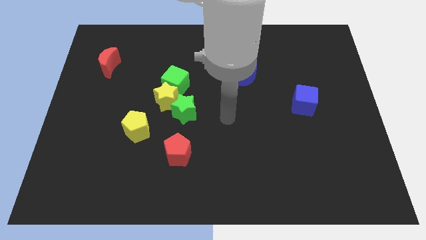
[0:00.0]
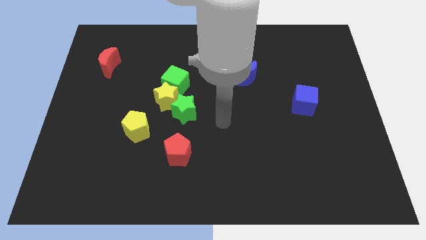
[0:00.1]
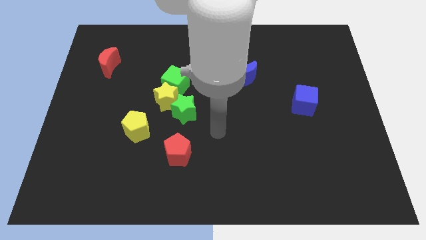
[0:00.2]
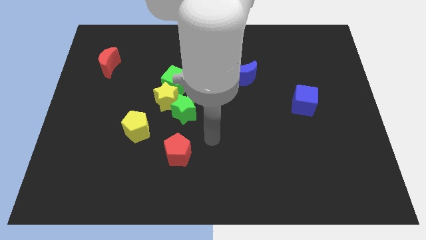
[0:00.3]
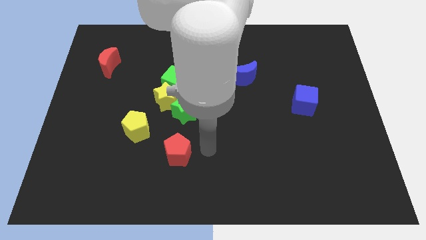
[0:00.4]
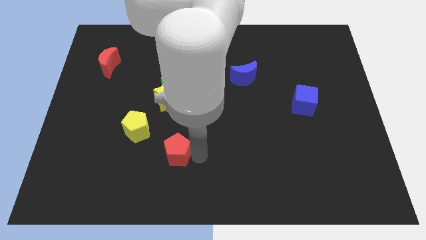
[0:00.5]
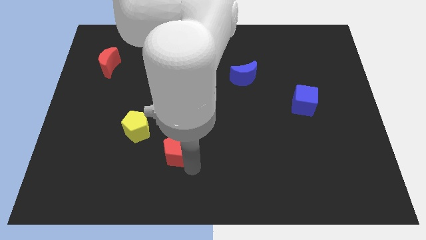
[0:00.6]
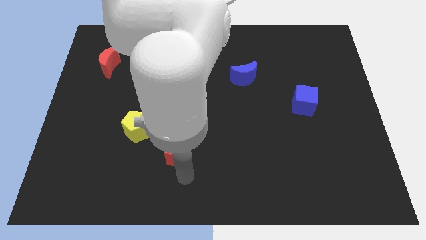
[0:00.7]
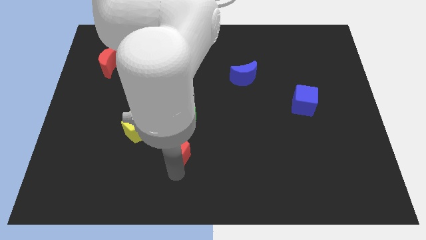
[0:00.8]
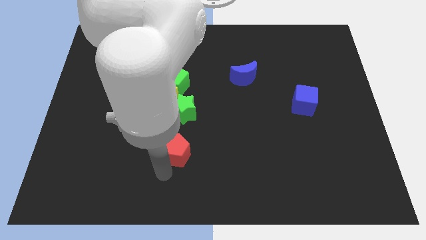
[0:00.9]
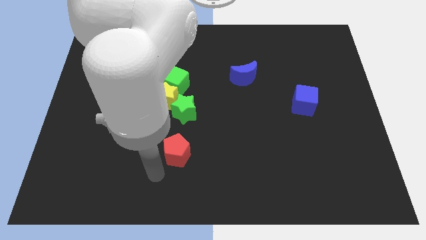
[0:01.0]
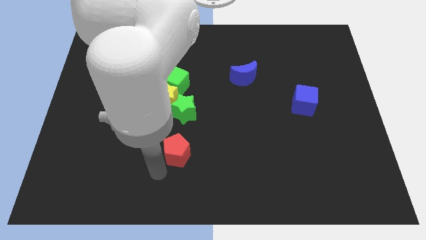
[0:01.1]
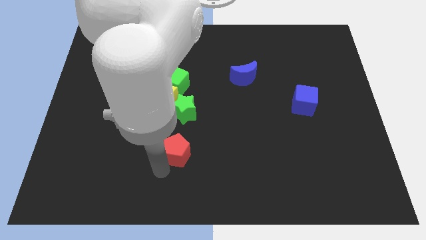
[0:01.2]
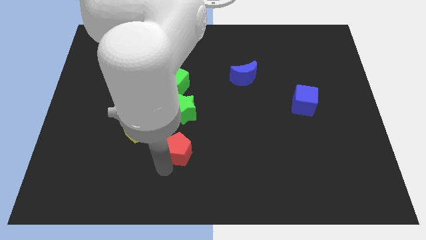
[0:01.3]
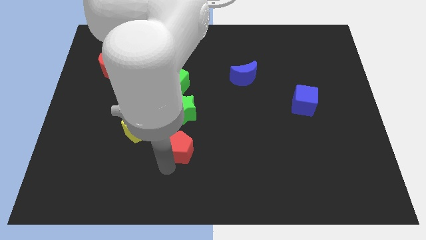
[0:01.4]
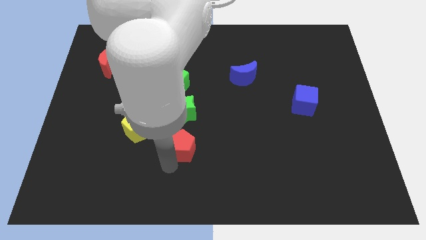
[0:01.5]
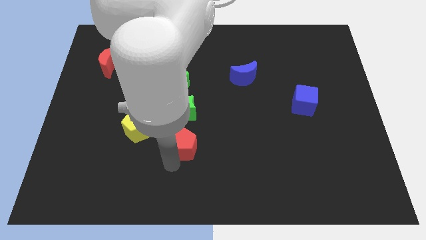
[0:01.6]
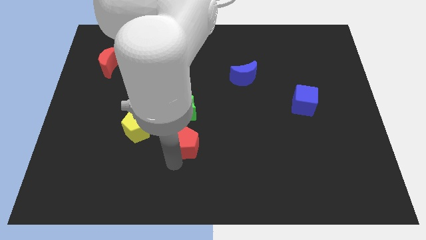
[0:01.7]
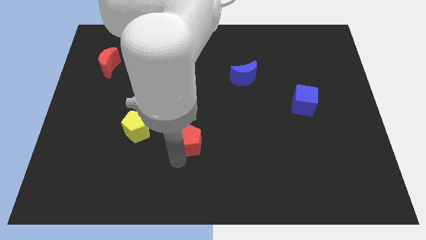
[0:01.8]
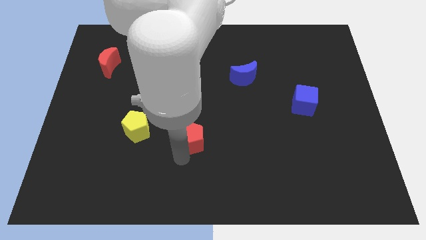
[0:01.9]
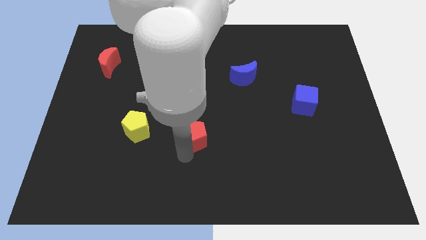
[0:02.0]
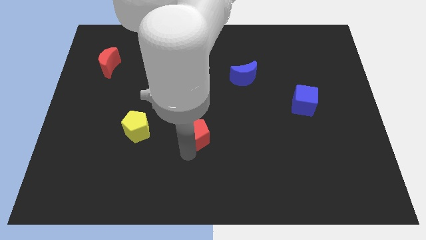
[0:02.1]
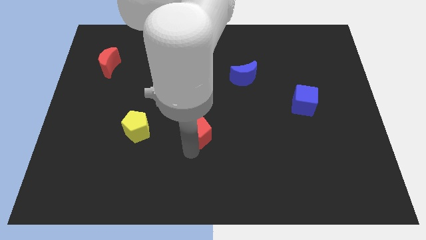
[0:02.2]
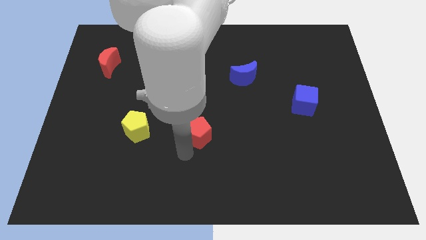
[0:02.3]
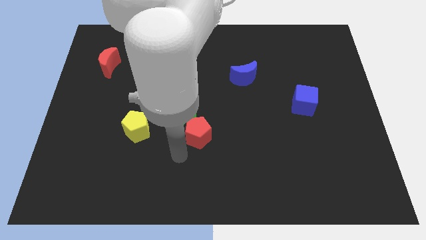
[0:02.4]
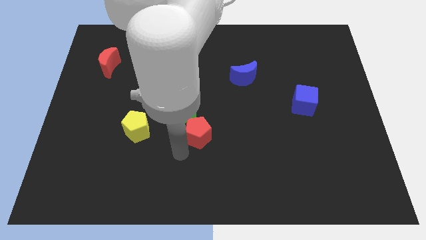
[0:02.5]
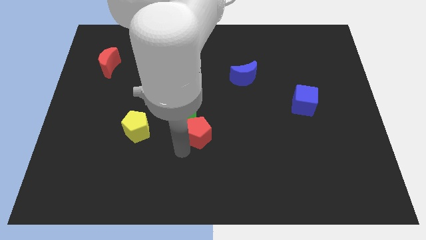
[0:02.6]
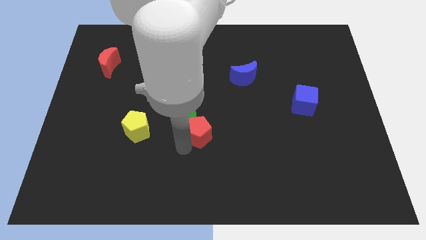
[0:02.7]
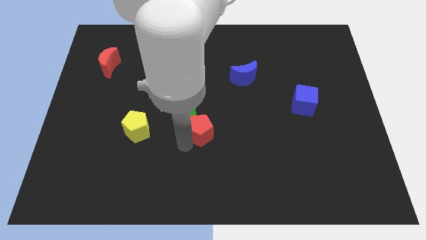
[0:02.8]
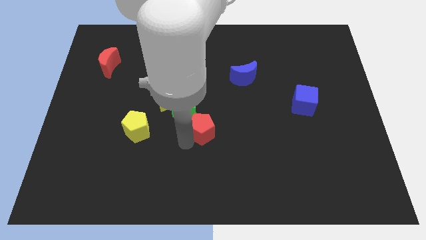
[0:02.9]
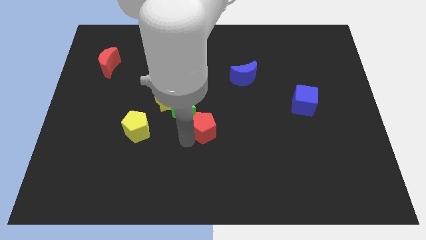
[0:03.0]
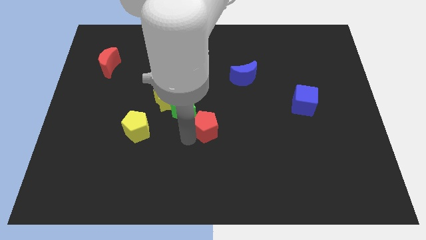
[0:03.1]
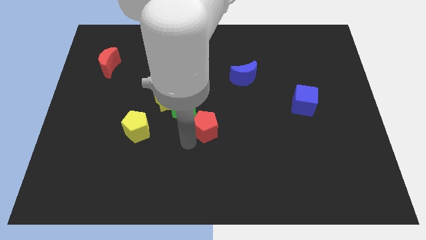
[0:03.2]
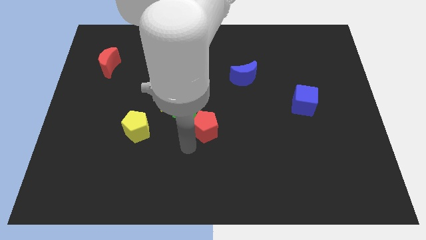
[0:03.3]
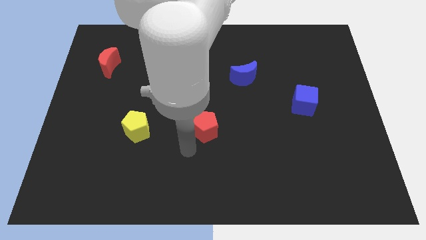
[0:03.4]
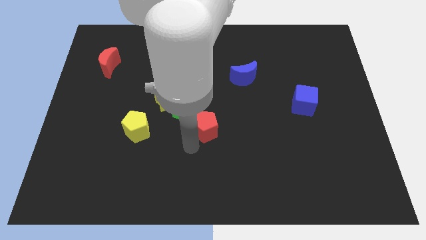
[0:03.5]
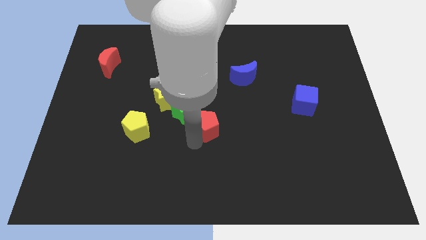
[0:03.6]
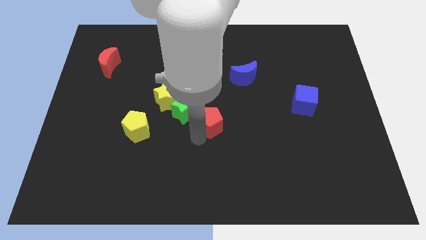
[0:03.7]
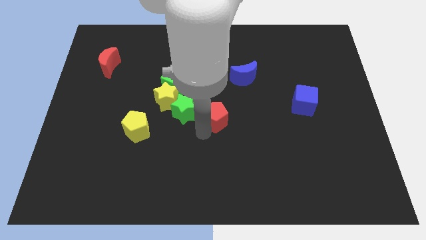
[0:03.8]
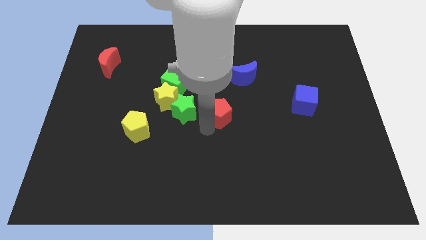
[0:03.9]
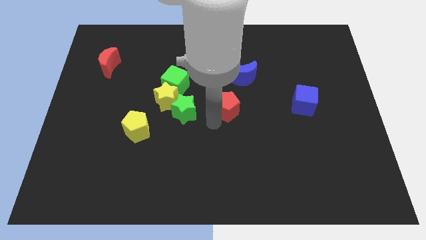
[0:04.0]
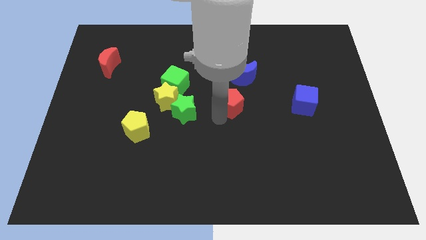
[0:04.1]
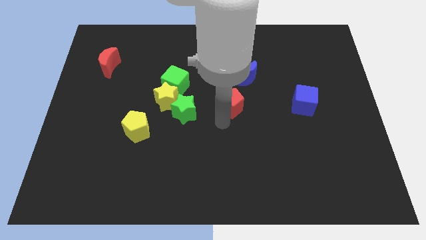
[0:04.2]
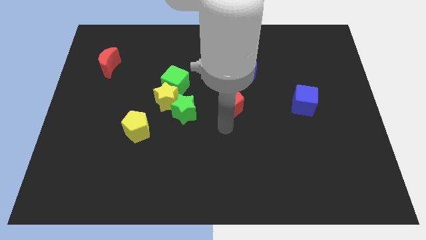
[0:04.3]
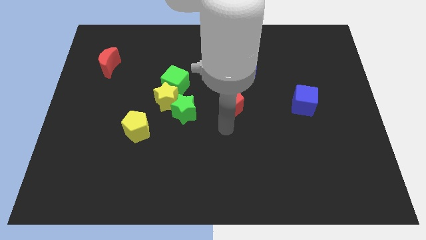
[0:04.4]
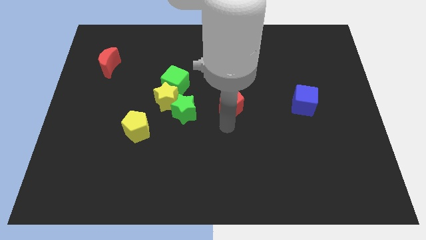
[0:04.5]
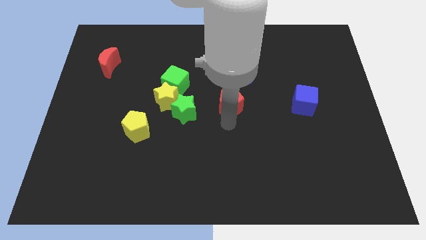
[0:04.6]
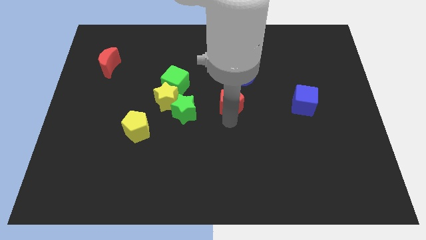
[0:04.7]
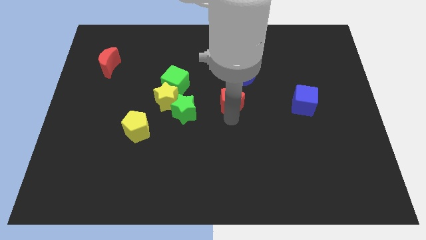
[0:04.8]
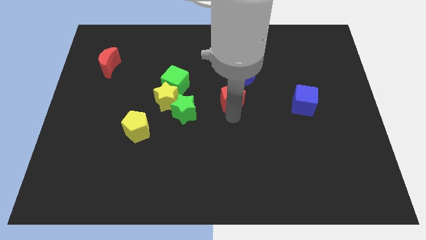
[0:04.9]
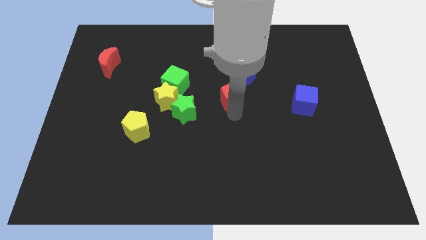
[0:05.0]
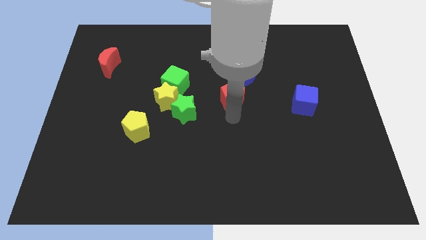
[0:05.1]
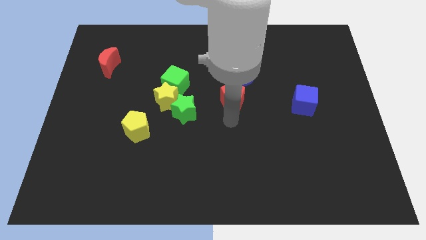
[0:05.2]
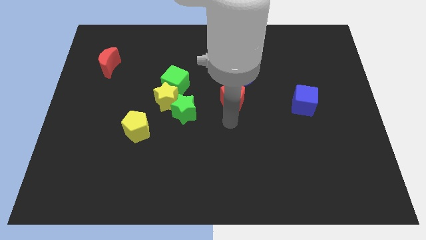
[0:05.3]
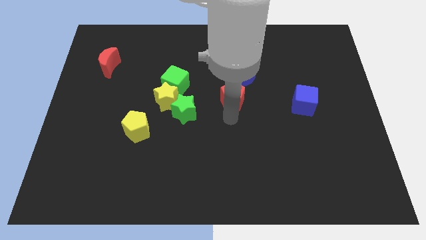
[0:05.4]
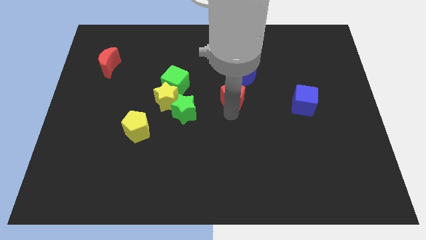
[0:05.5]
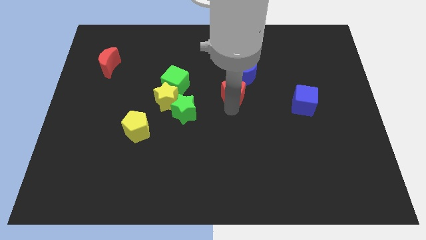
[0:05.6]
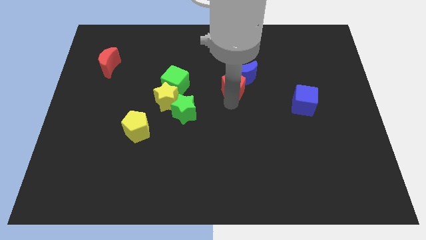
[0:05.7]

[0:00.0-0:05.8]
move the red pentagon close to the blue moon

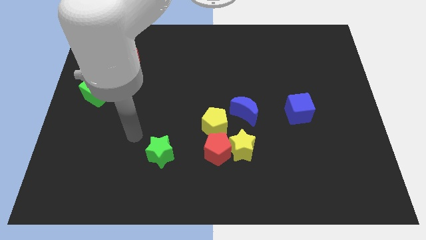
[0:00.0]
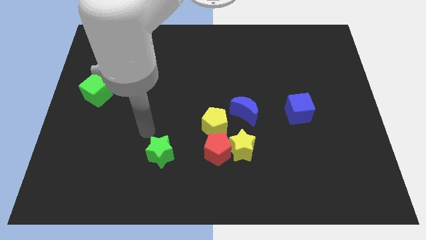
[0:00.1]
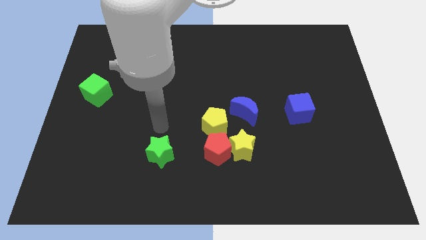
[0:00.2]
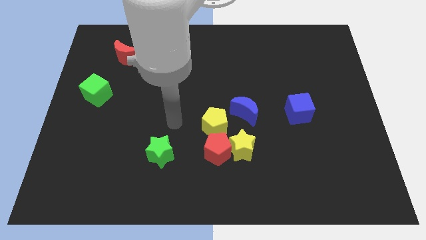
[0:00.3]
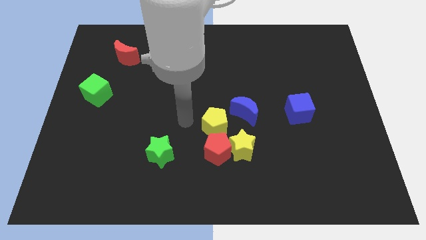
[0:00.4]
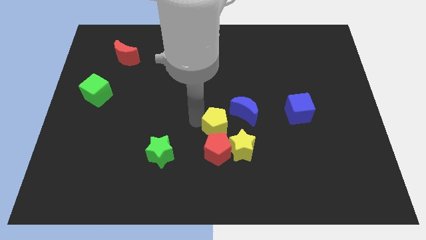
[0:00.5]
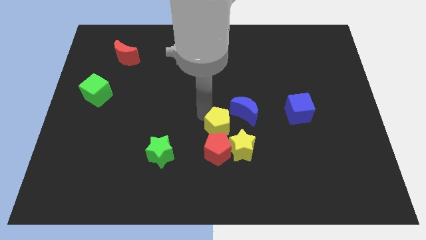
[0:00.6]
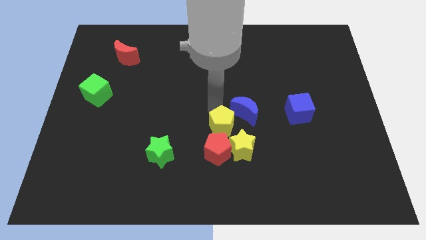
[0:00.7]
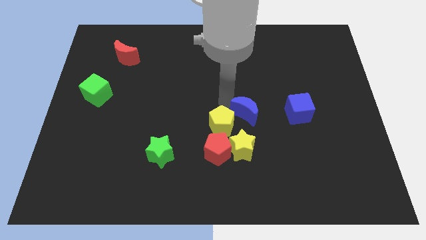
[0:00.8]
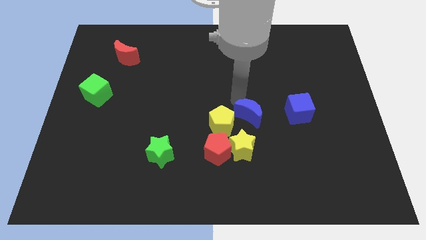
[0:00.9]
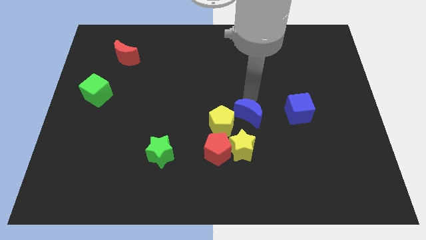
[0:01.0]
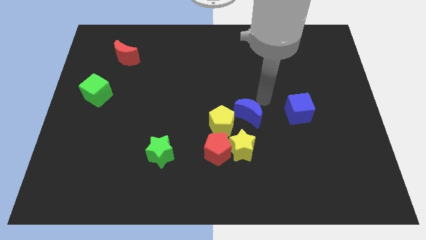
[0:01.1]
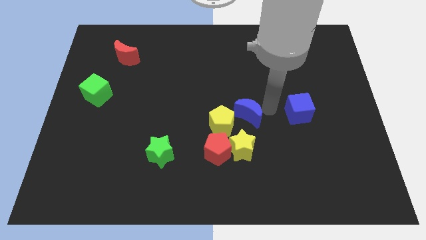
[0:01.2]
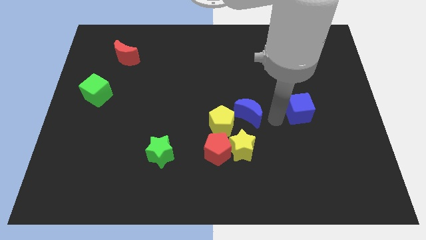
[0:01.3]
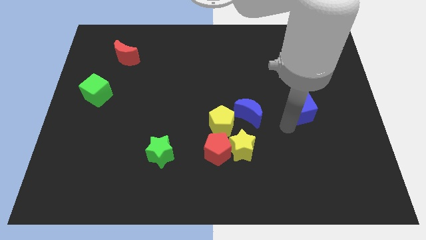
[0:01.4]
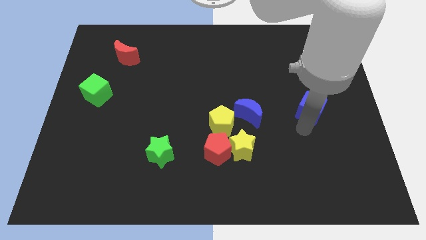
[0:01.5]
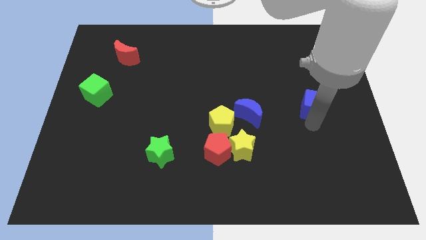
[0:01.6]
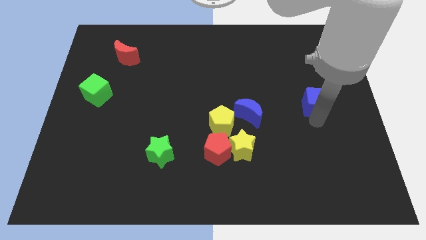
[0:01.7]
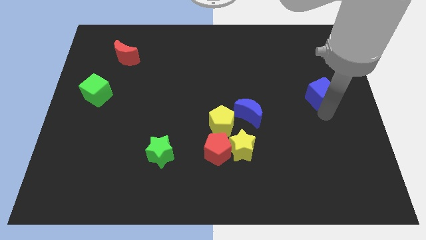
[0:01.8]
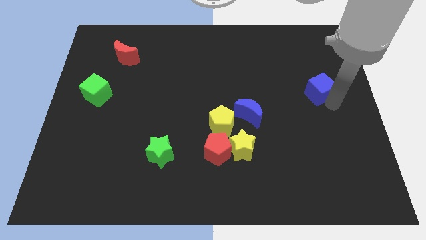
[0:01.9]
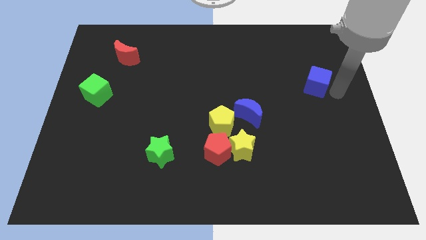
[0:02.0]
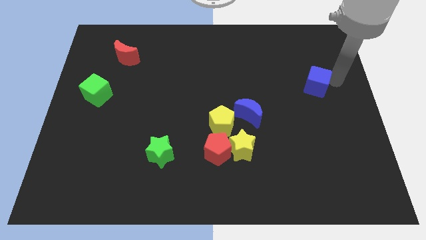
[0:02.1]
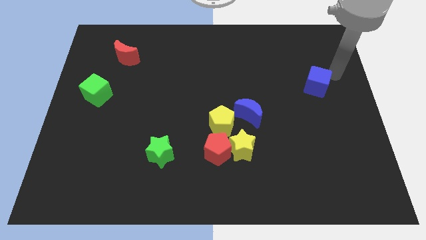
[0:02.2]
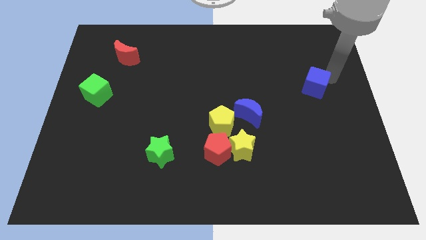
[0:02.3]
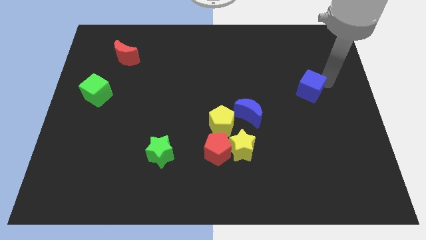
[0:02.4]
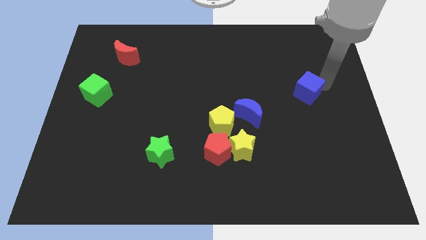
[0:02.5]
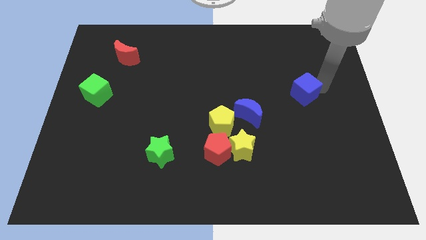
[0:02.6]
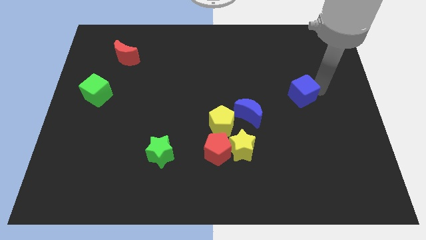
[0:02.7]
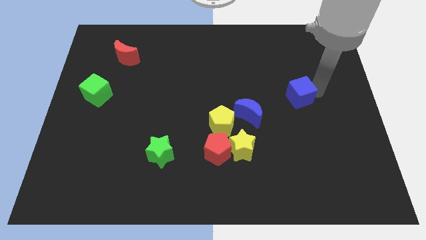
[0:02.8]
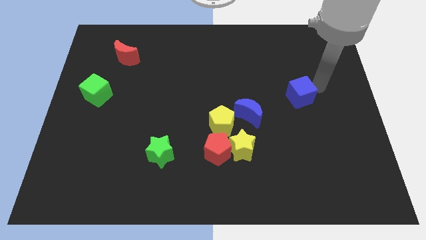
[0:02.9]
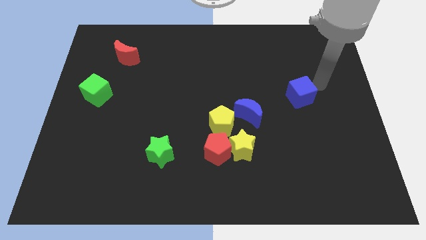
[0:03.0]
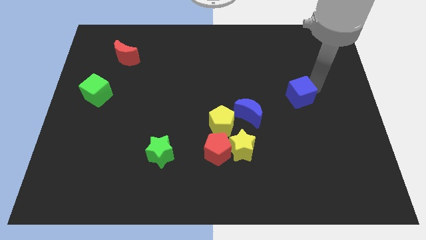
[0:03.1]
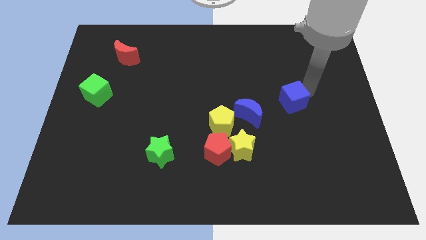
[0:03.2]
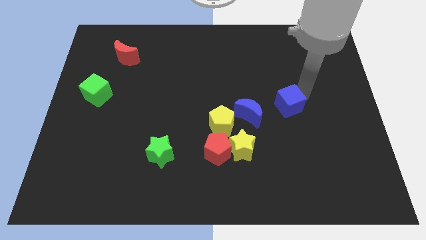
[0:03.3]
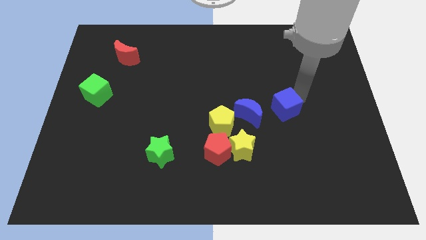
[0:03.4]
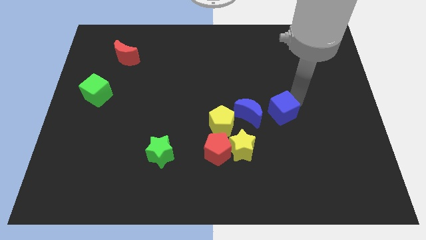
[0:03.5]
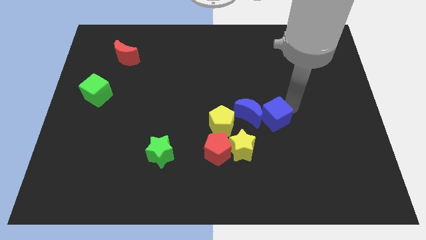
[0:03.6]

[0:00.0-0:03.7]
move the blue cube to the blue moon
